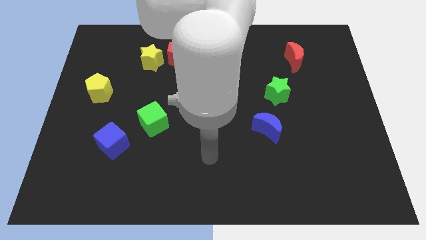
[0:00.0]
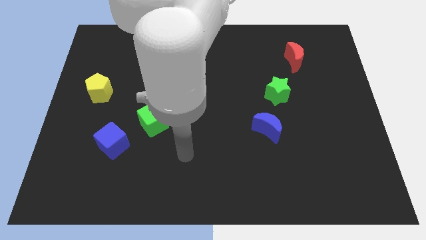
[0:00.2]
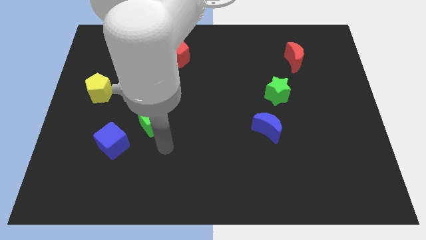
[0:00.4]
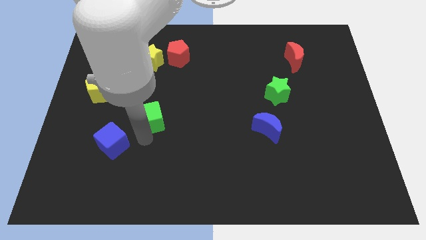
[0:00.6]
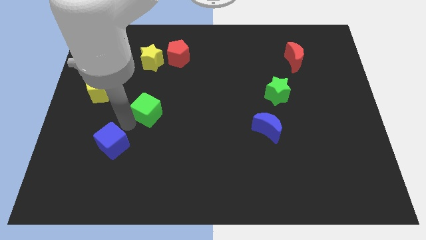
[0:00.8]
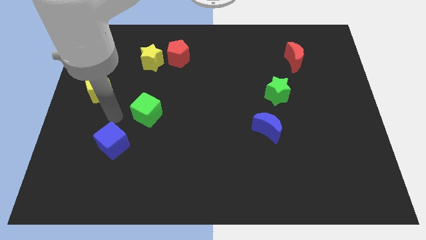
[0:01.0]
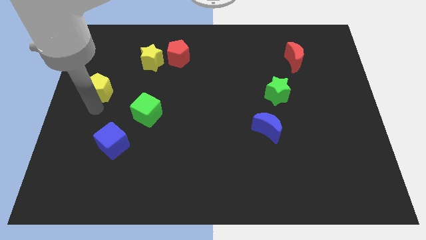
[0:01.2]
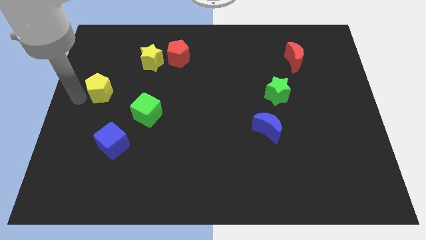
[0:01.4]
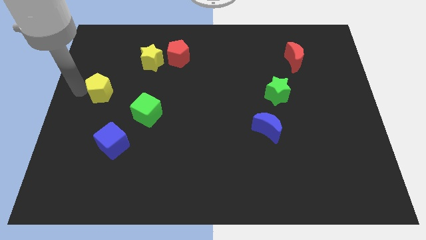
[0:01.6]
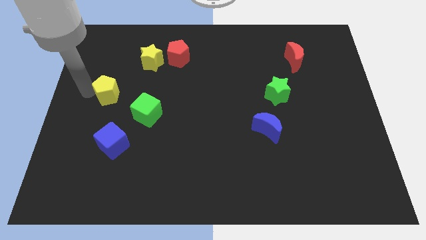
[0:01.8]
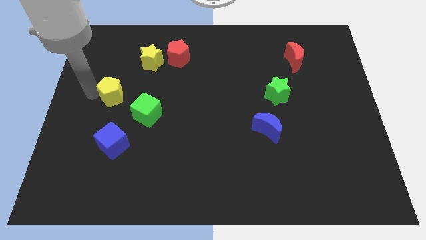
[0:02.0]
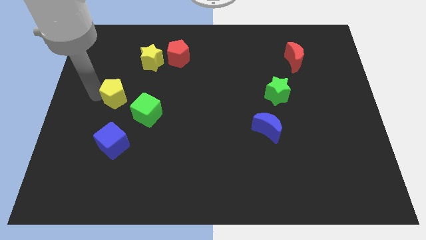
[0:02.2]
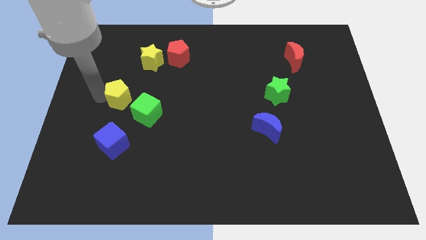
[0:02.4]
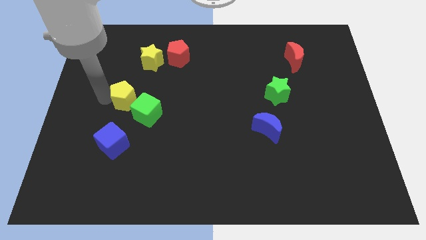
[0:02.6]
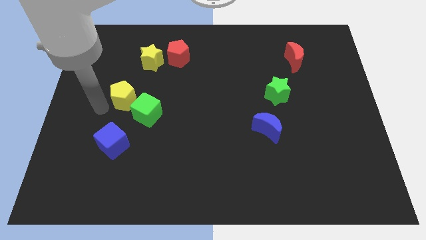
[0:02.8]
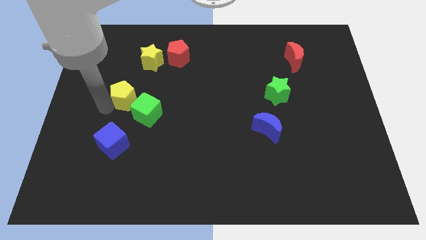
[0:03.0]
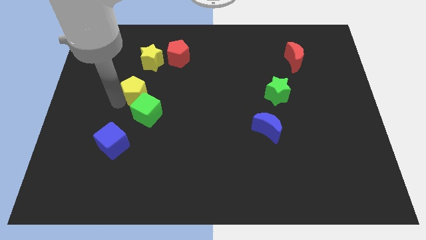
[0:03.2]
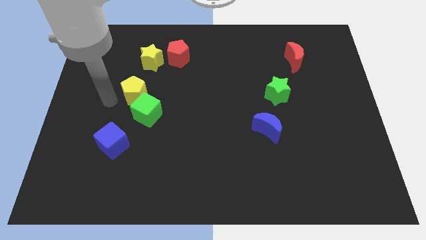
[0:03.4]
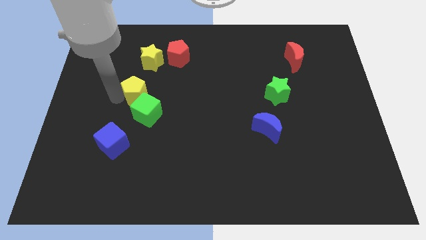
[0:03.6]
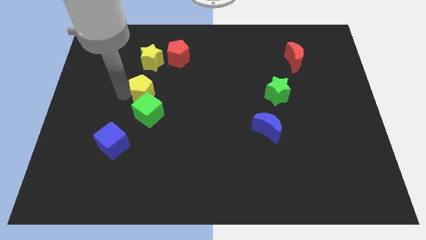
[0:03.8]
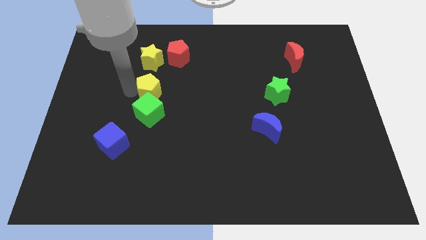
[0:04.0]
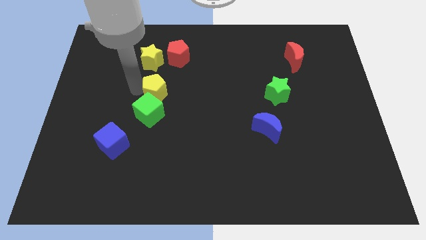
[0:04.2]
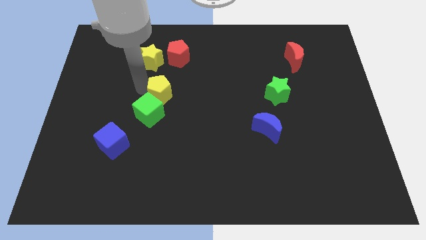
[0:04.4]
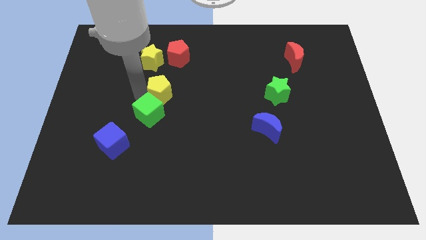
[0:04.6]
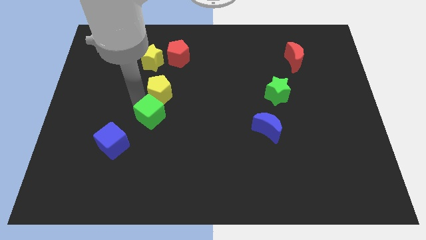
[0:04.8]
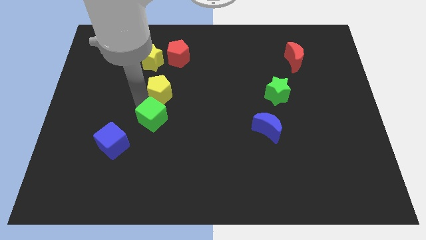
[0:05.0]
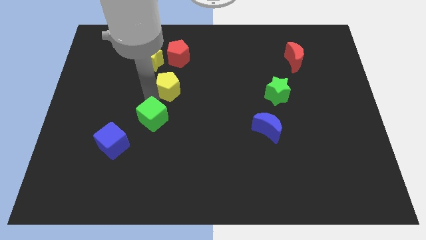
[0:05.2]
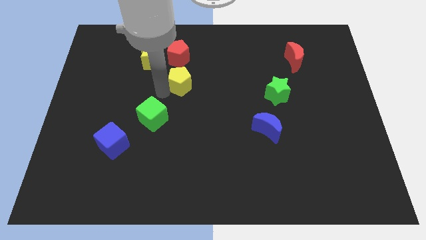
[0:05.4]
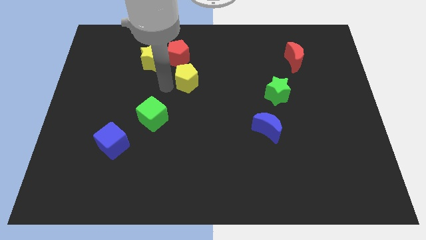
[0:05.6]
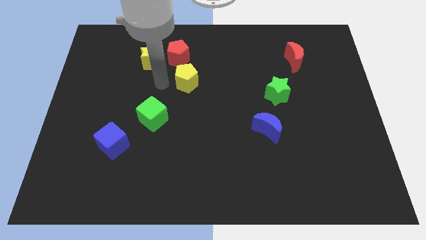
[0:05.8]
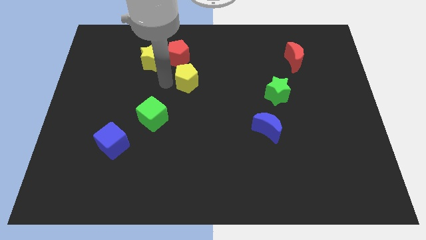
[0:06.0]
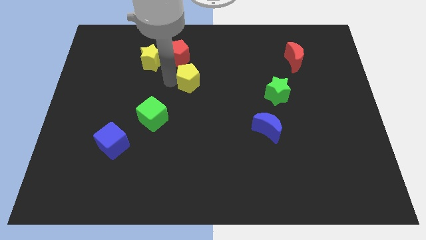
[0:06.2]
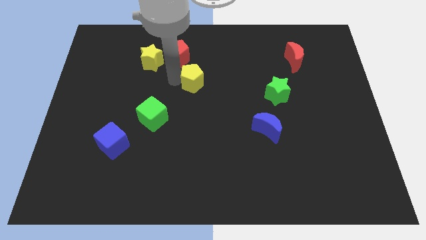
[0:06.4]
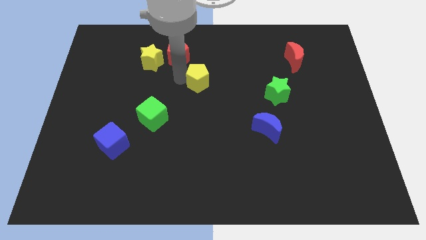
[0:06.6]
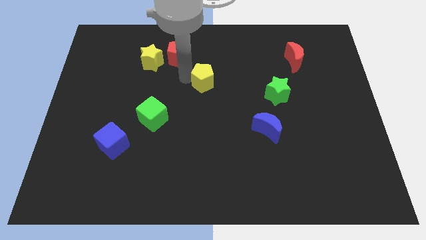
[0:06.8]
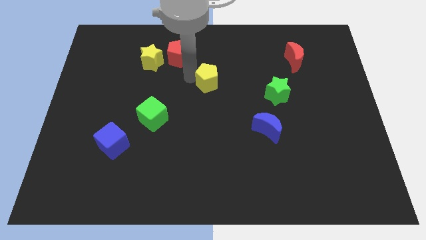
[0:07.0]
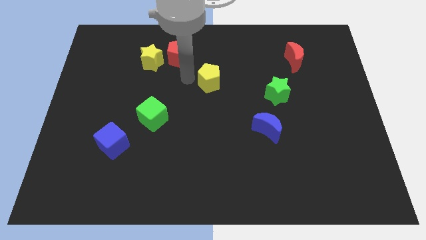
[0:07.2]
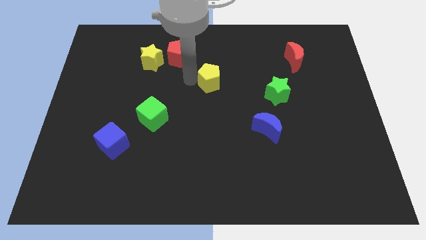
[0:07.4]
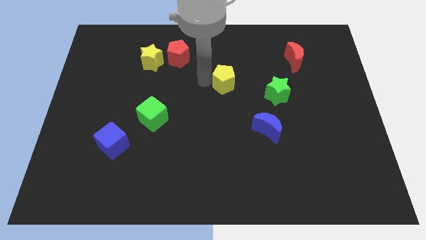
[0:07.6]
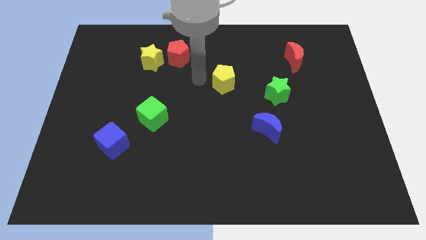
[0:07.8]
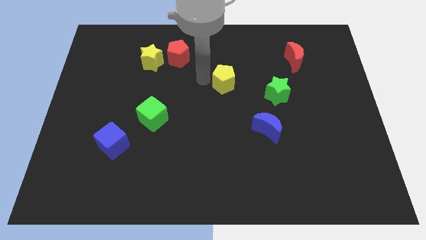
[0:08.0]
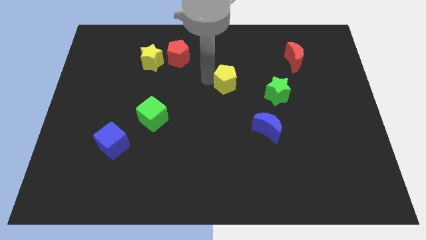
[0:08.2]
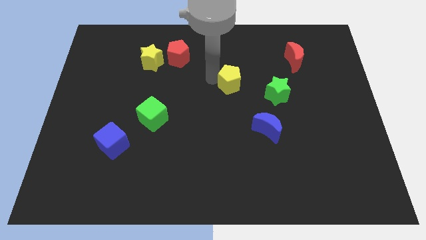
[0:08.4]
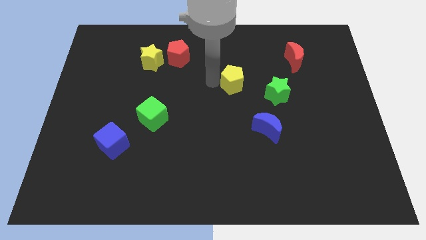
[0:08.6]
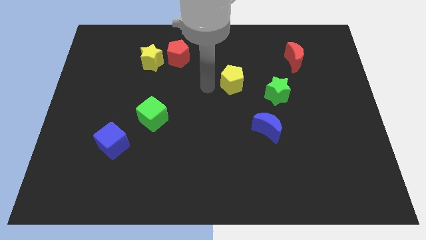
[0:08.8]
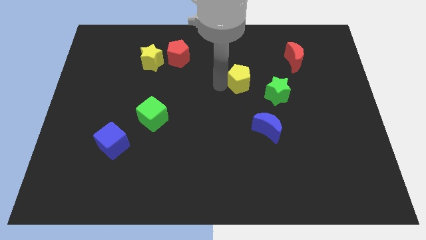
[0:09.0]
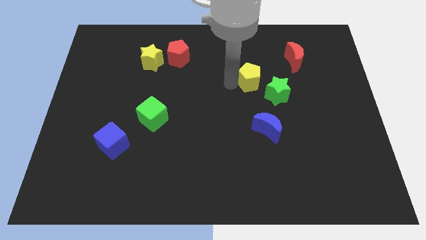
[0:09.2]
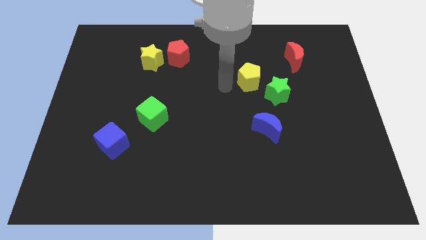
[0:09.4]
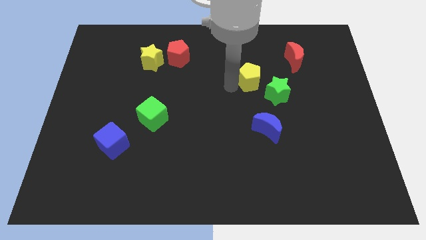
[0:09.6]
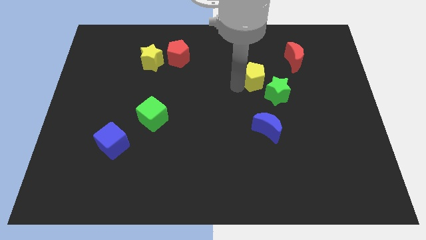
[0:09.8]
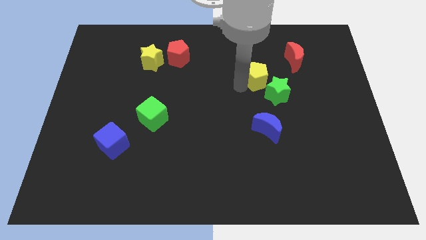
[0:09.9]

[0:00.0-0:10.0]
move the yellow pentagon to the bottom left of the red moon
